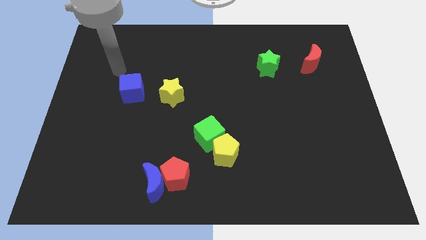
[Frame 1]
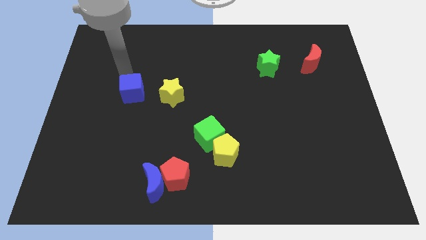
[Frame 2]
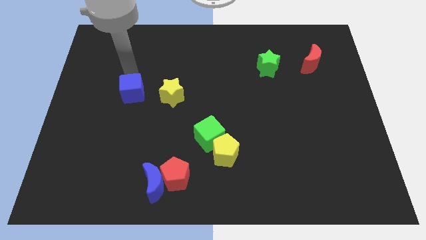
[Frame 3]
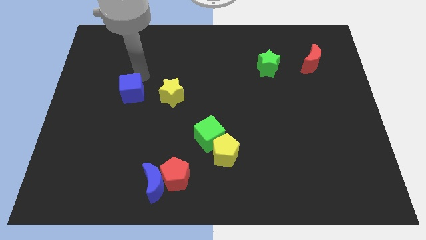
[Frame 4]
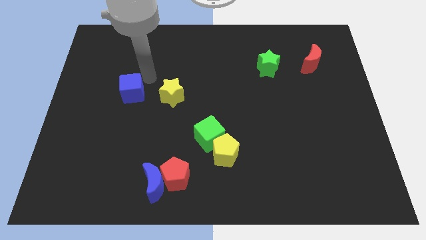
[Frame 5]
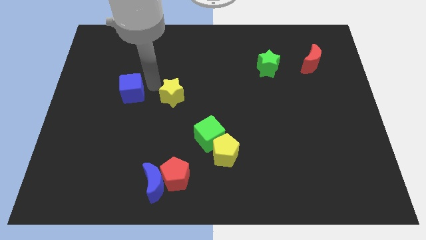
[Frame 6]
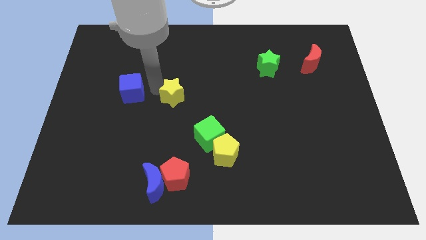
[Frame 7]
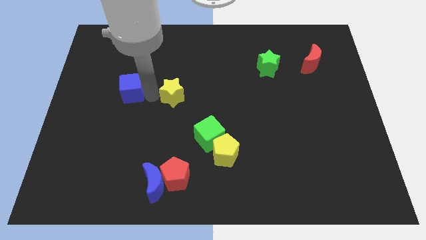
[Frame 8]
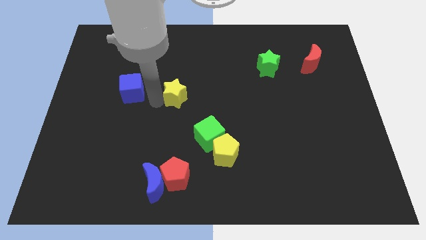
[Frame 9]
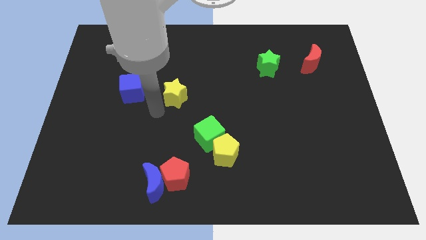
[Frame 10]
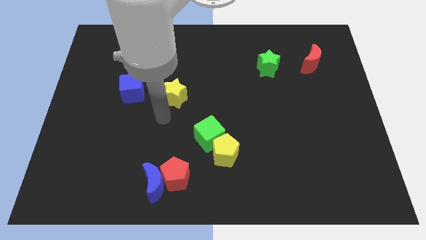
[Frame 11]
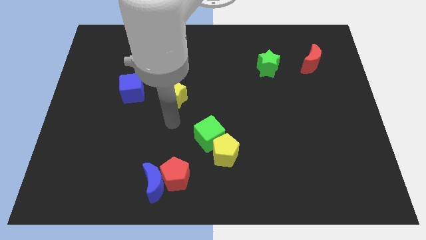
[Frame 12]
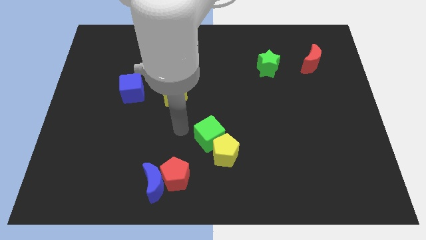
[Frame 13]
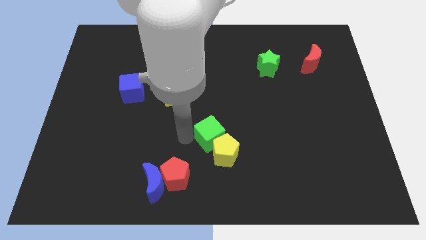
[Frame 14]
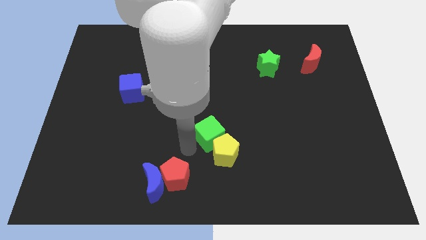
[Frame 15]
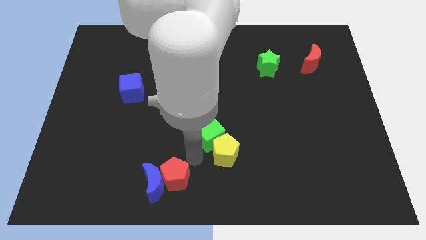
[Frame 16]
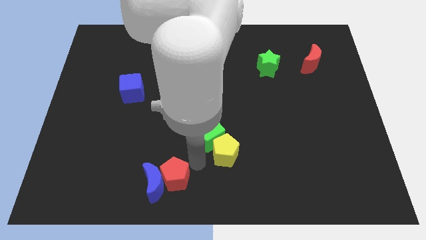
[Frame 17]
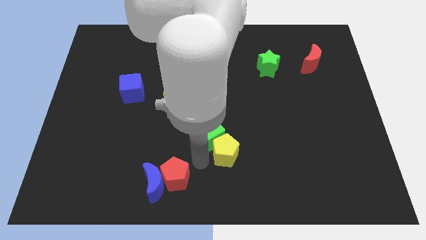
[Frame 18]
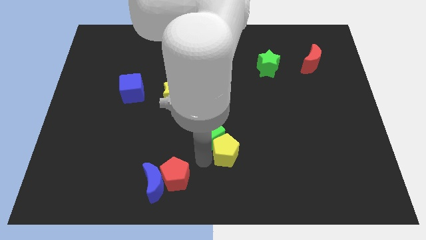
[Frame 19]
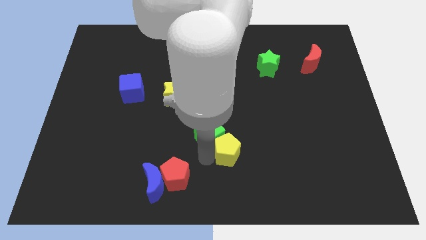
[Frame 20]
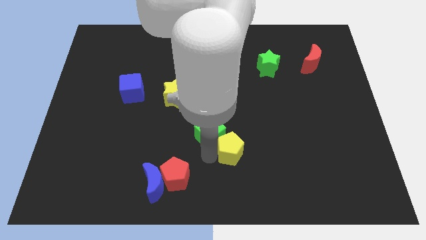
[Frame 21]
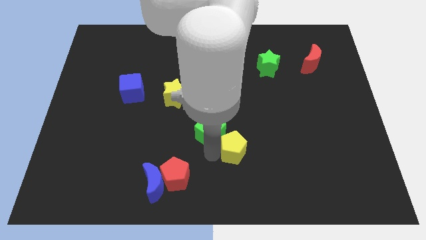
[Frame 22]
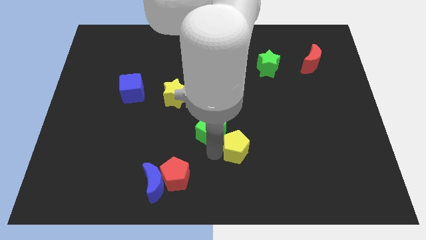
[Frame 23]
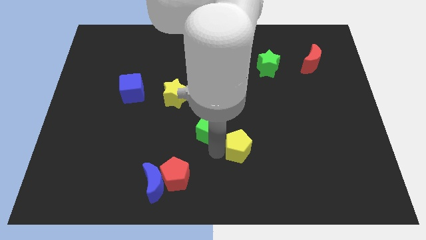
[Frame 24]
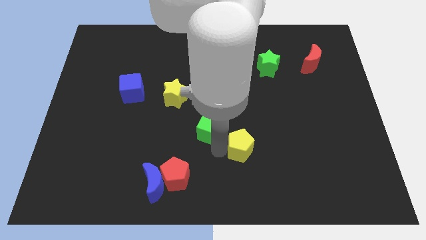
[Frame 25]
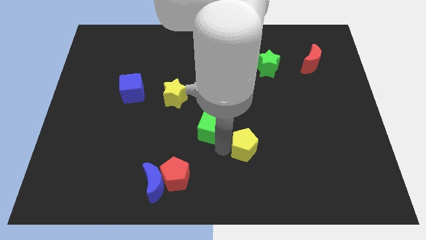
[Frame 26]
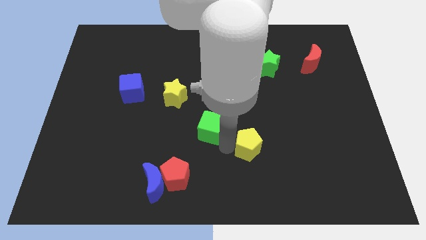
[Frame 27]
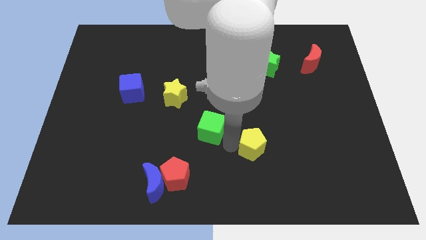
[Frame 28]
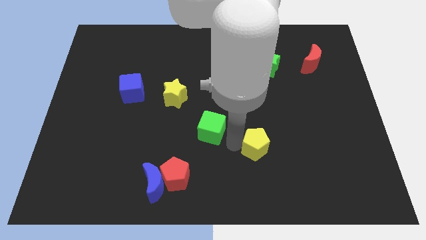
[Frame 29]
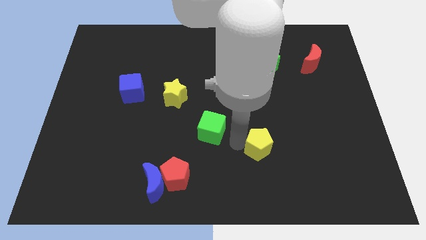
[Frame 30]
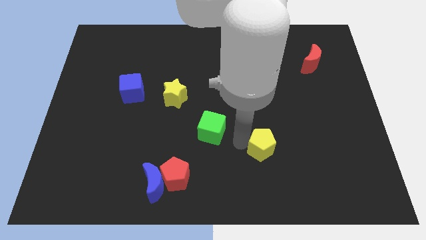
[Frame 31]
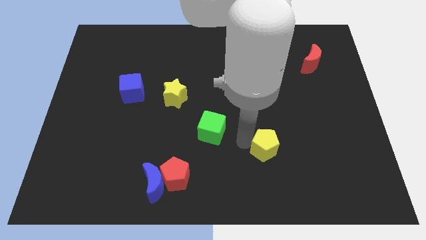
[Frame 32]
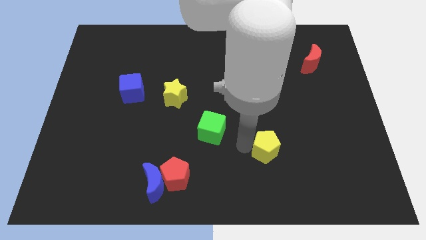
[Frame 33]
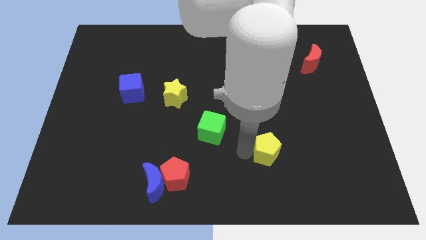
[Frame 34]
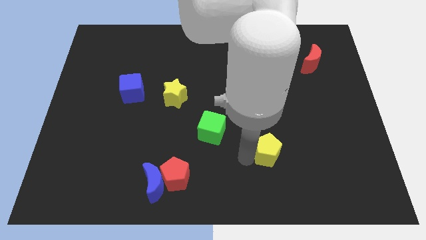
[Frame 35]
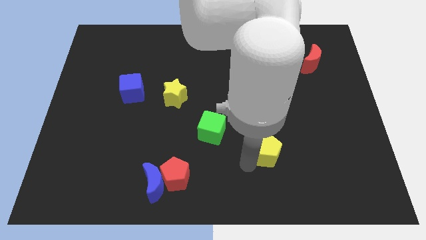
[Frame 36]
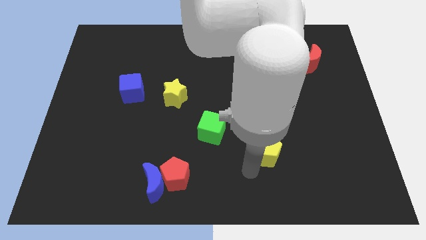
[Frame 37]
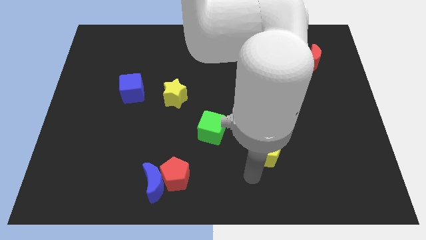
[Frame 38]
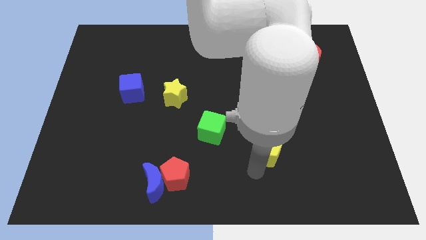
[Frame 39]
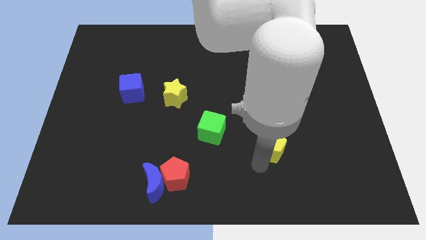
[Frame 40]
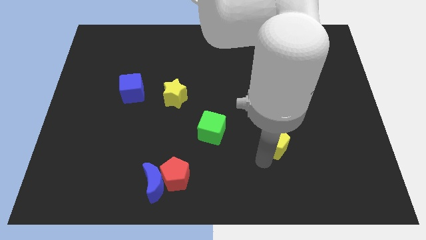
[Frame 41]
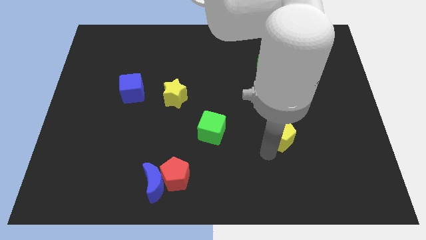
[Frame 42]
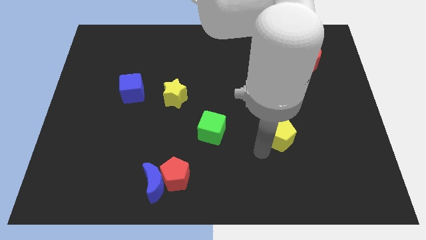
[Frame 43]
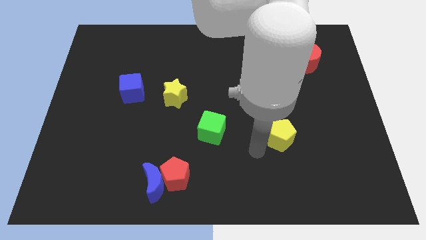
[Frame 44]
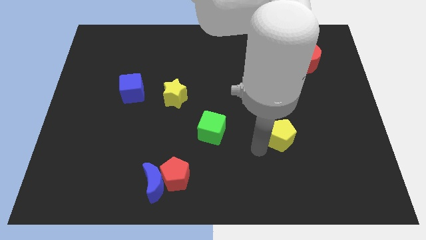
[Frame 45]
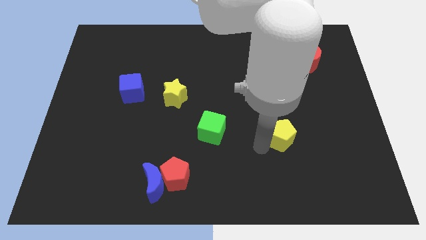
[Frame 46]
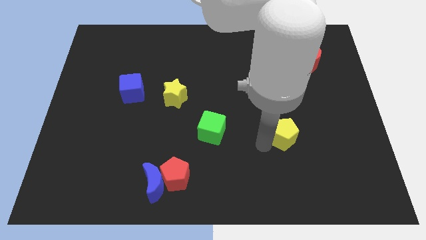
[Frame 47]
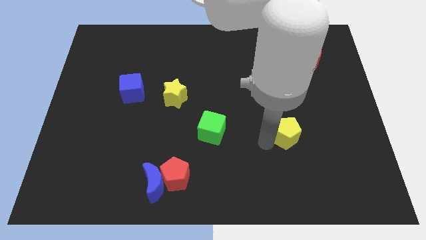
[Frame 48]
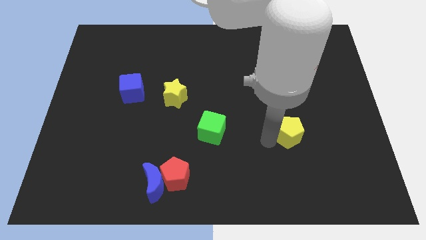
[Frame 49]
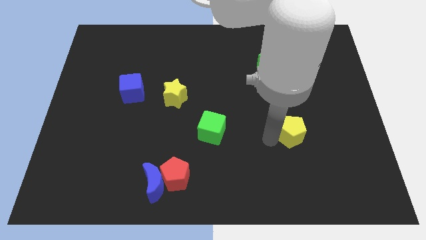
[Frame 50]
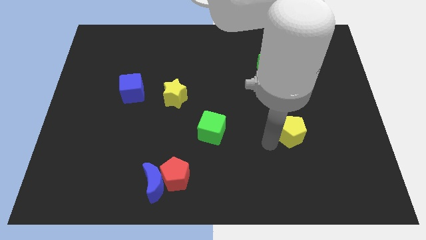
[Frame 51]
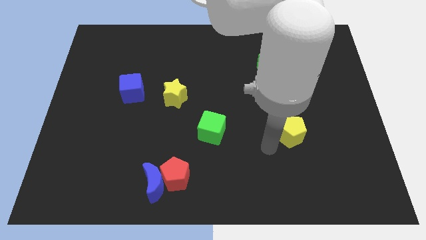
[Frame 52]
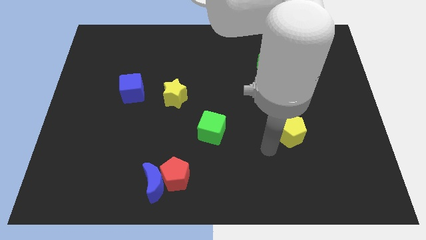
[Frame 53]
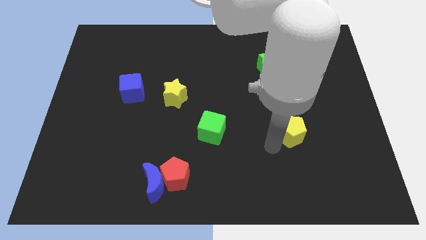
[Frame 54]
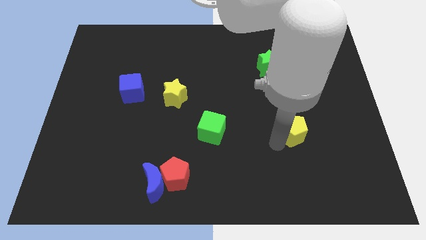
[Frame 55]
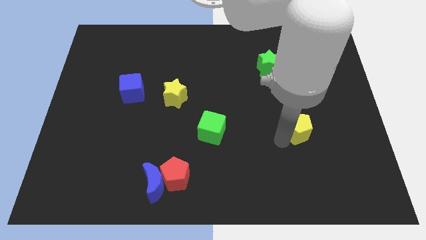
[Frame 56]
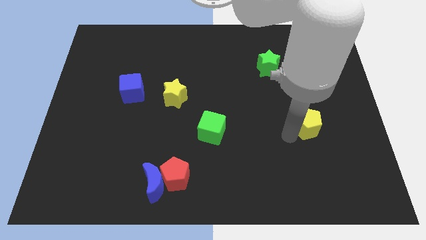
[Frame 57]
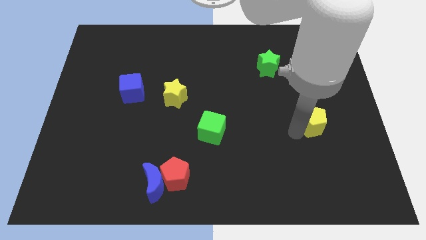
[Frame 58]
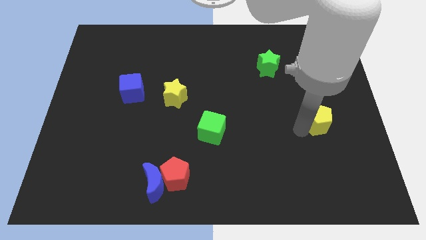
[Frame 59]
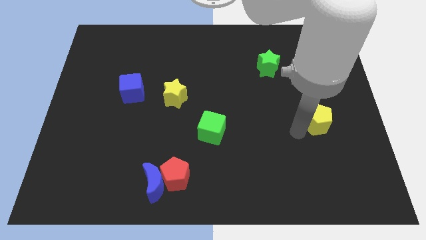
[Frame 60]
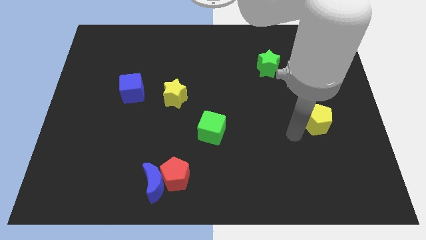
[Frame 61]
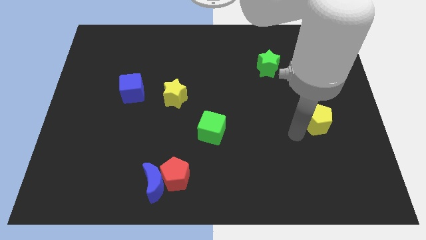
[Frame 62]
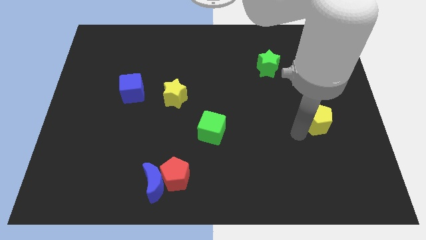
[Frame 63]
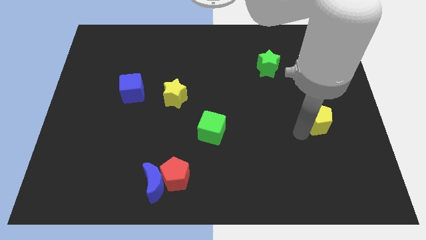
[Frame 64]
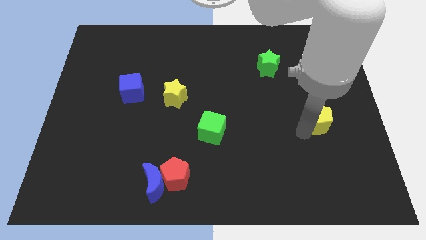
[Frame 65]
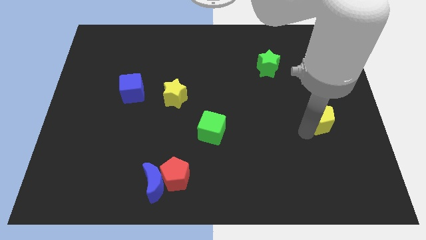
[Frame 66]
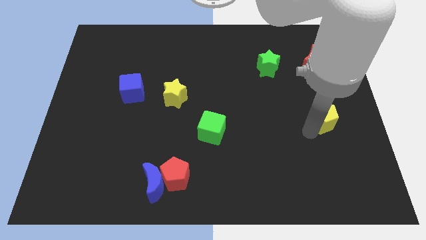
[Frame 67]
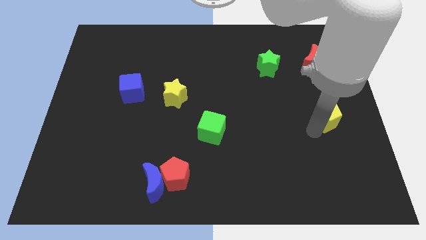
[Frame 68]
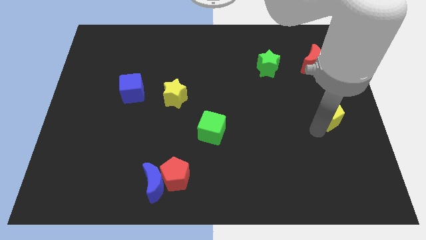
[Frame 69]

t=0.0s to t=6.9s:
move the yellow pentagon to the center right
